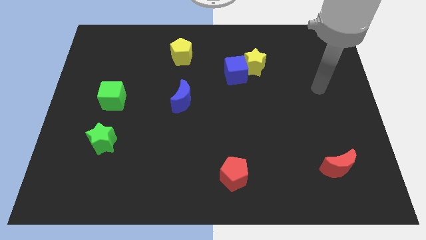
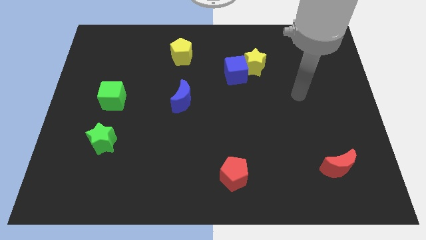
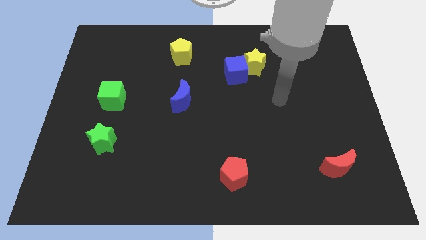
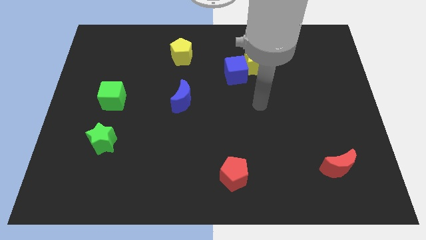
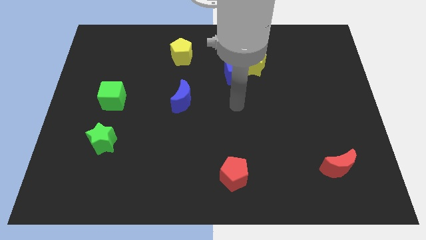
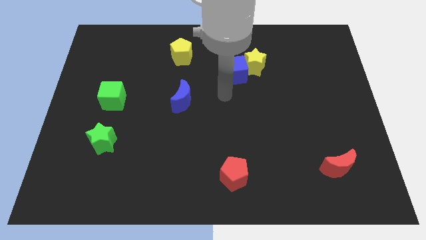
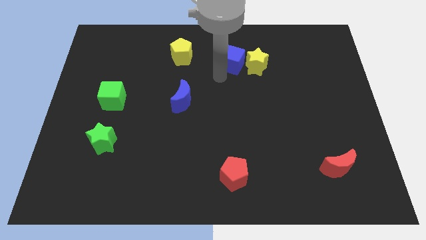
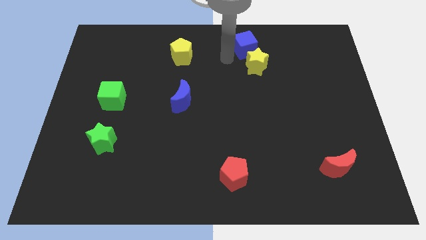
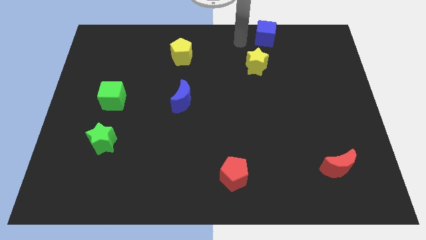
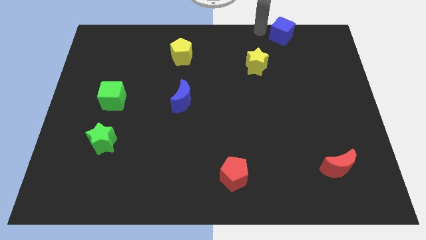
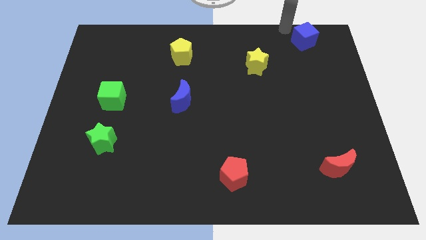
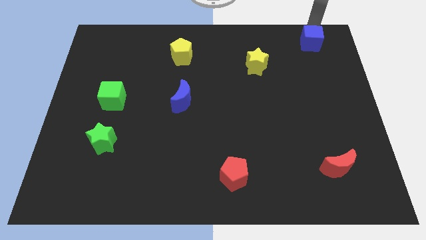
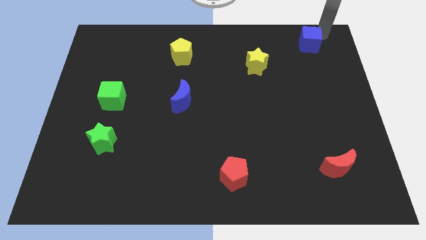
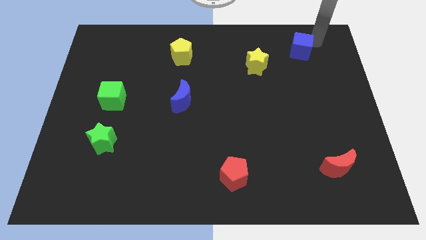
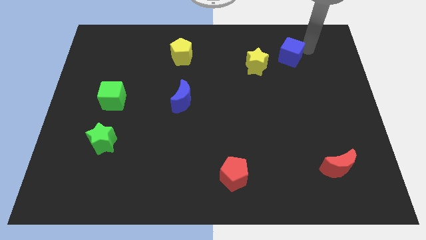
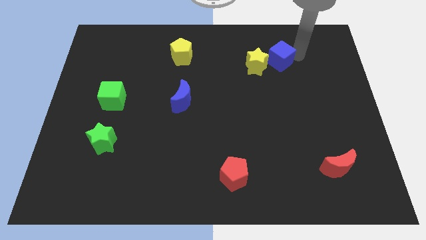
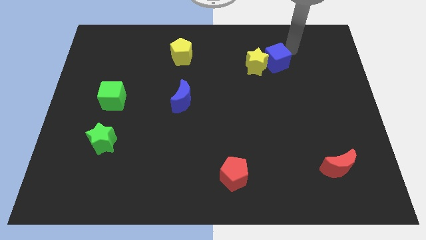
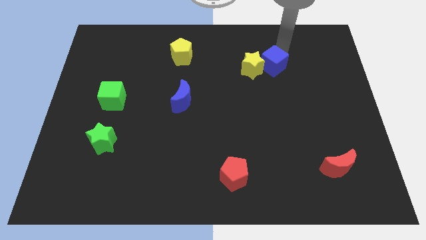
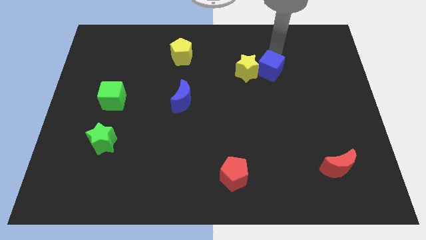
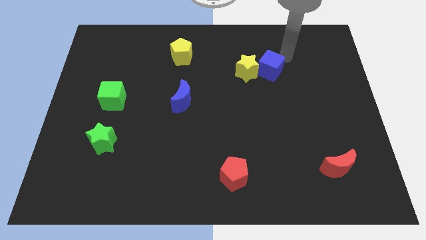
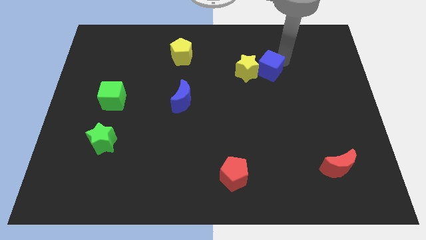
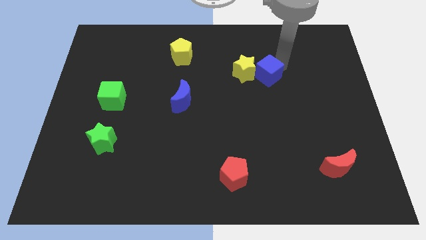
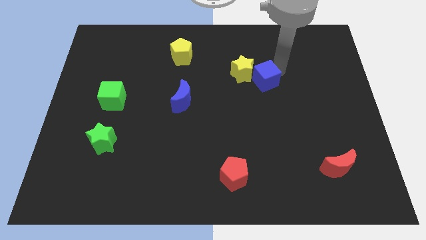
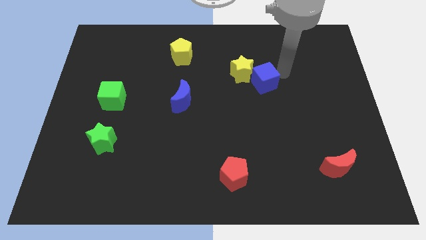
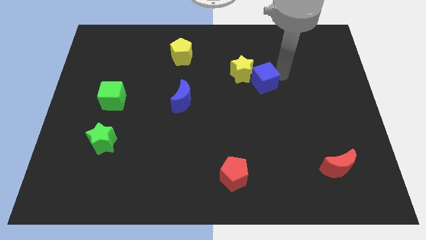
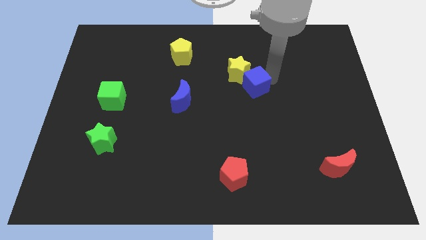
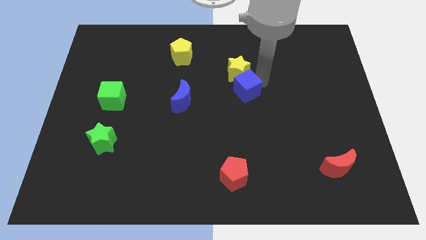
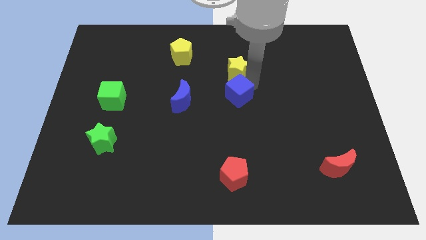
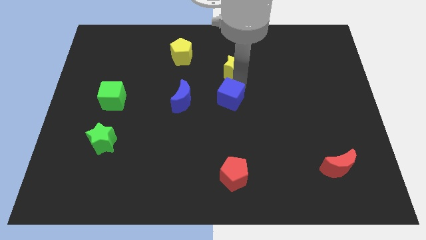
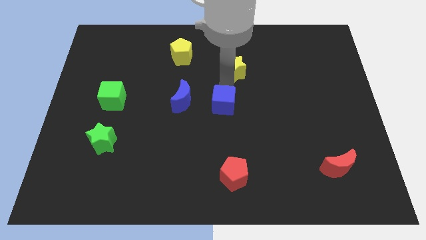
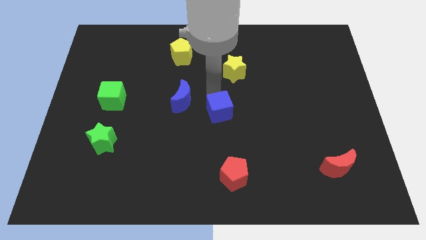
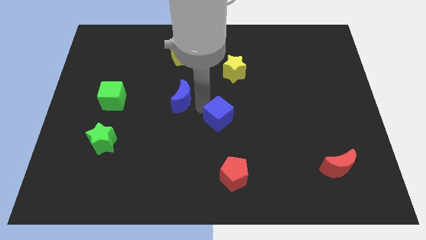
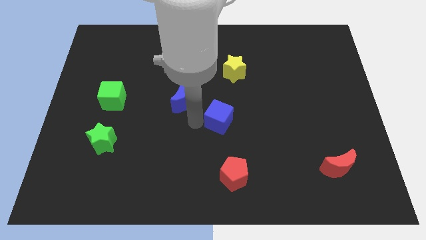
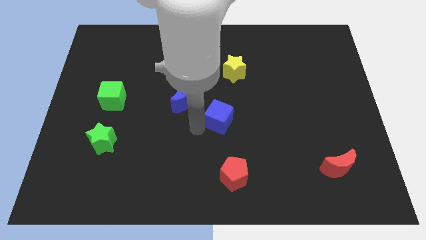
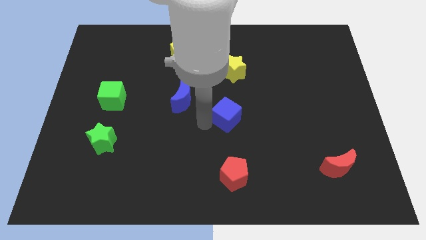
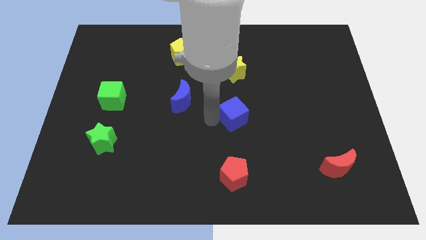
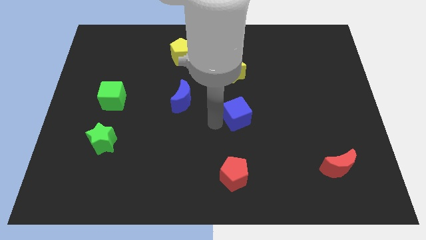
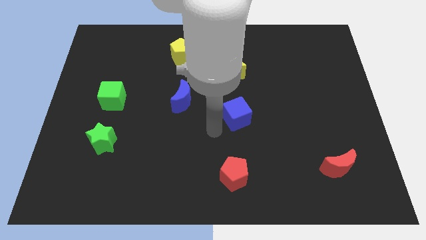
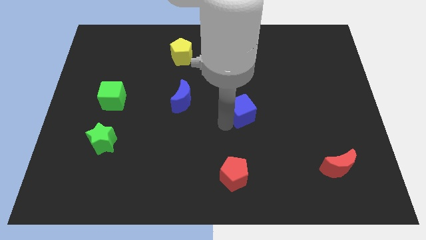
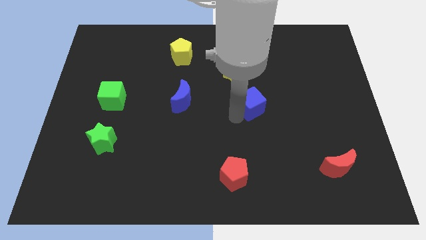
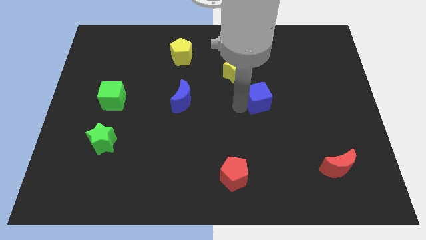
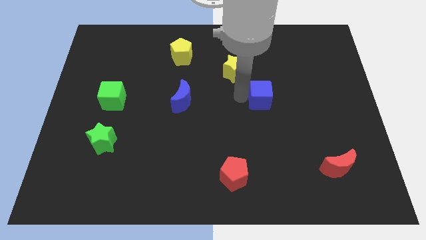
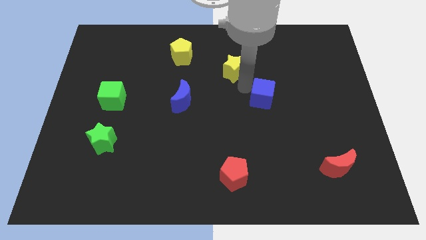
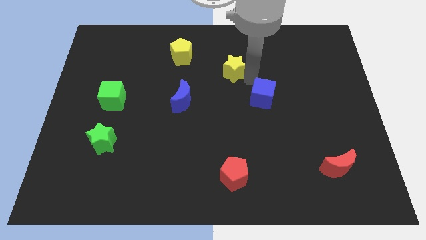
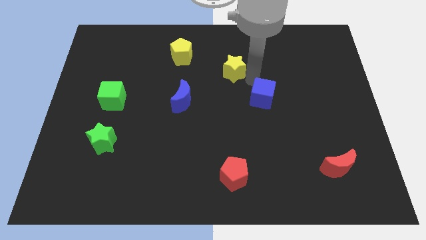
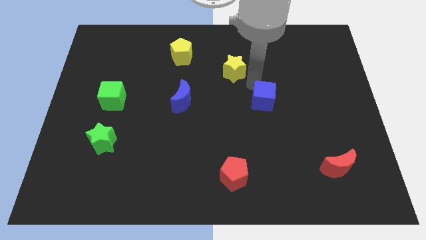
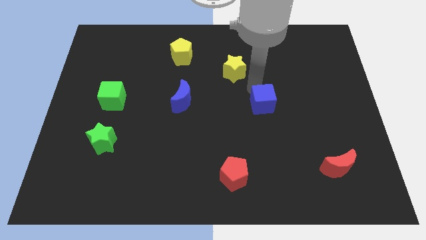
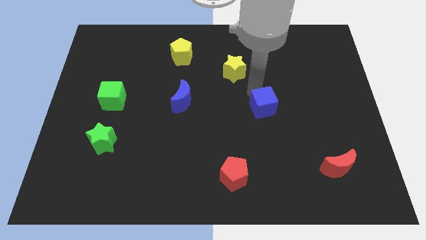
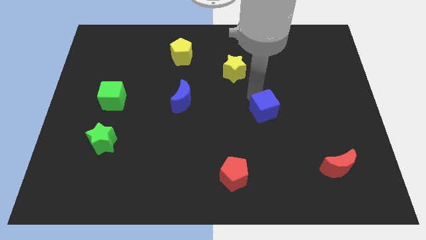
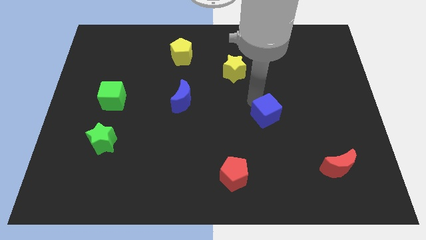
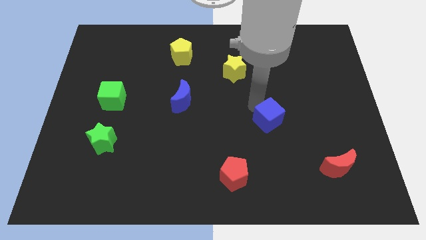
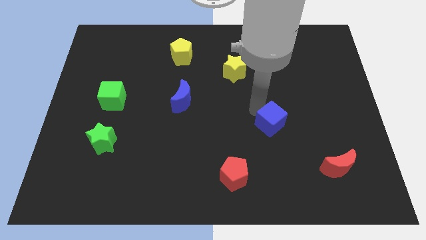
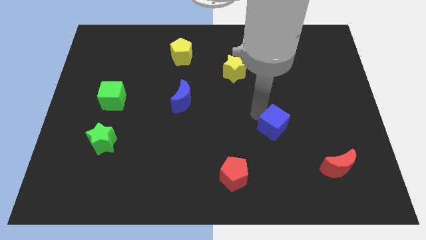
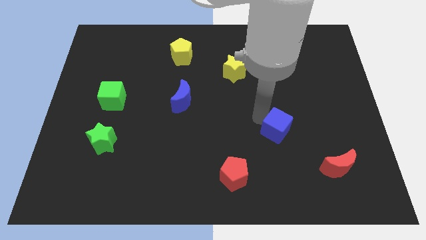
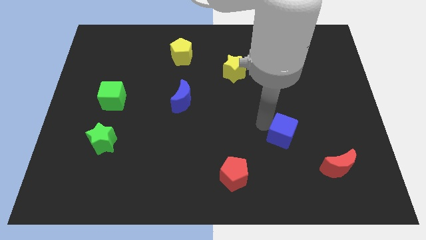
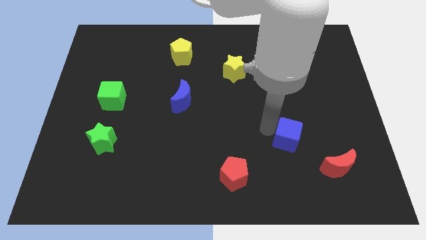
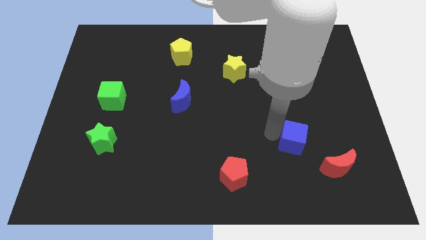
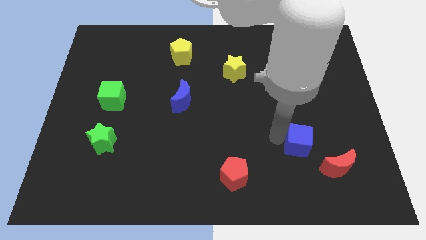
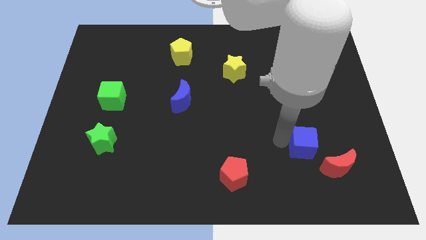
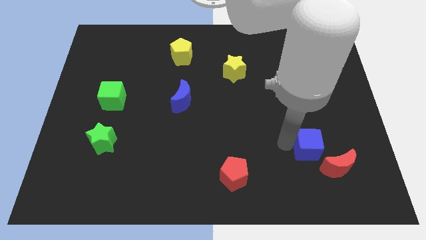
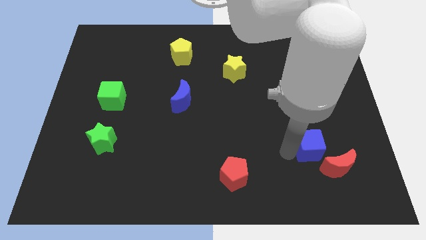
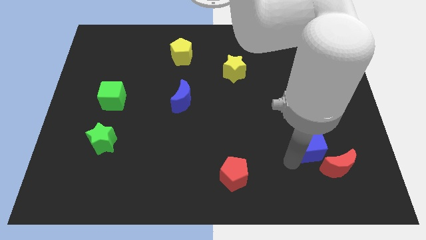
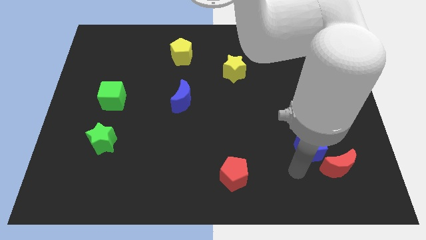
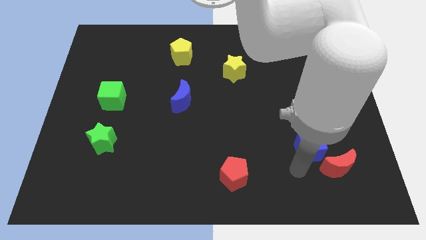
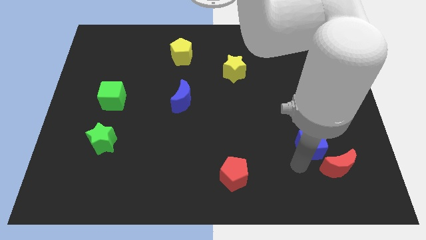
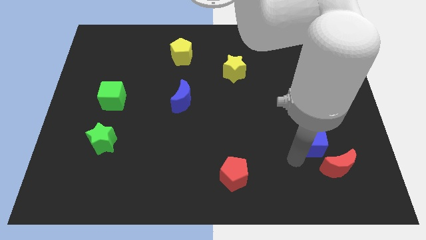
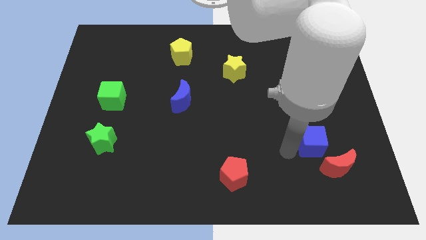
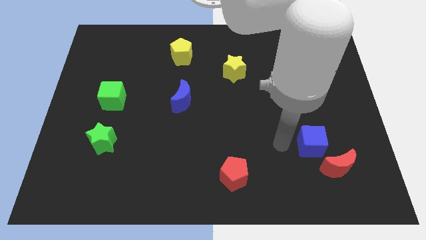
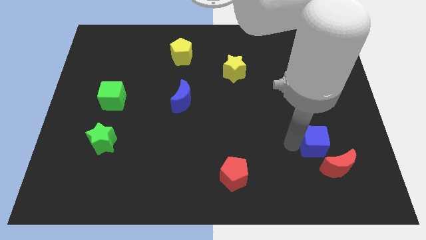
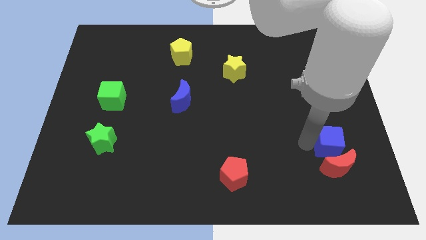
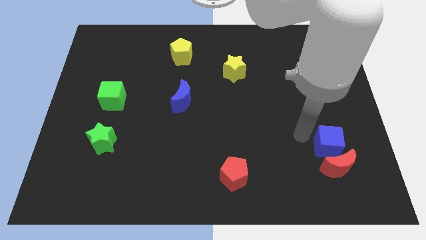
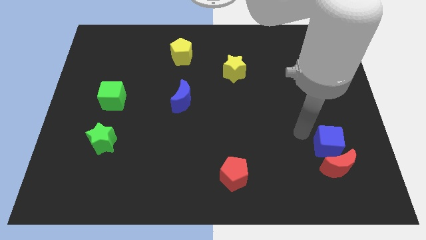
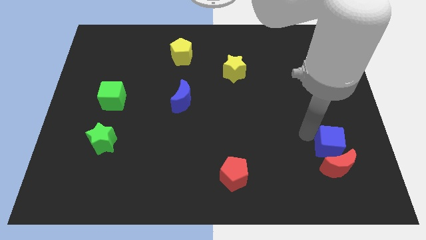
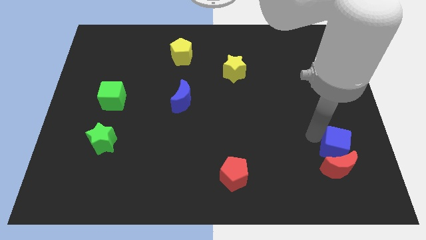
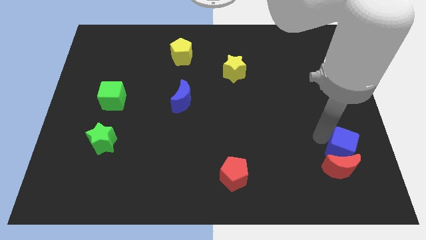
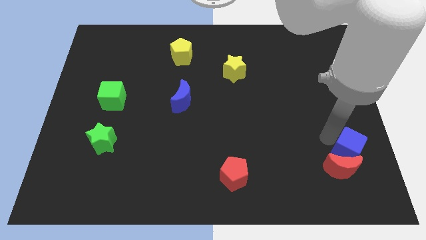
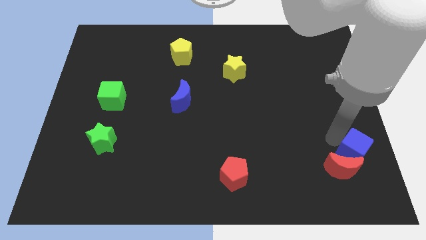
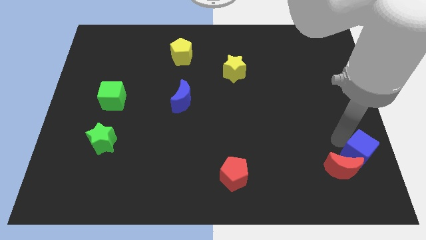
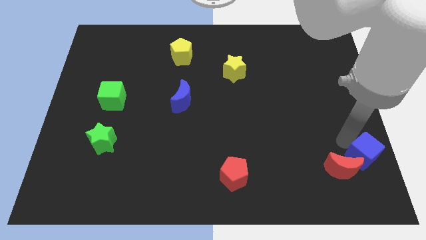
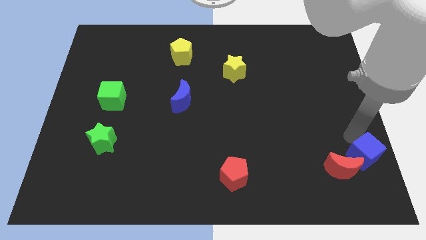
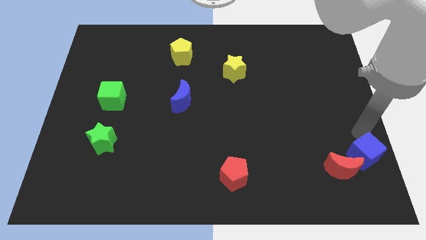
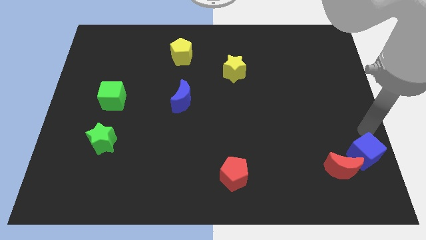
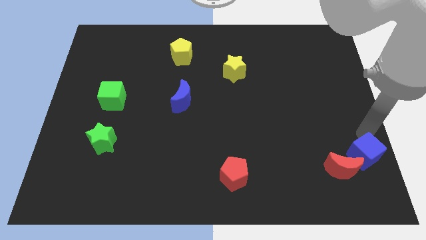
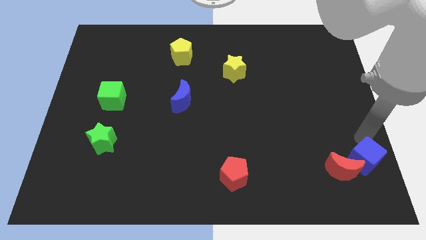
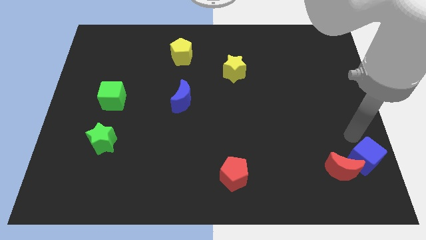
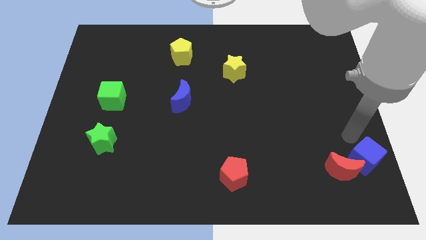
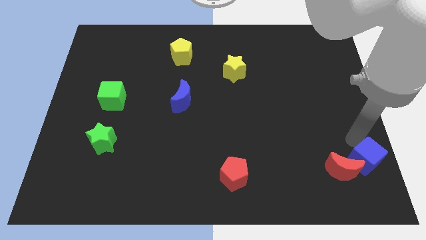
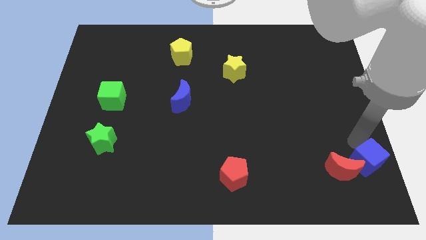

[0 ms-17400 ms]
move the blue cube to the lower right corner
